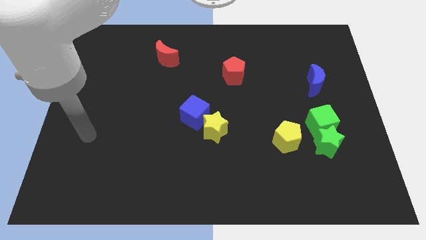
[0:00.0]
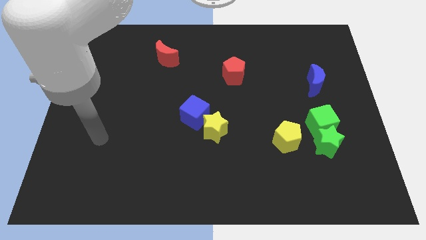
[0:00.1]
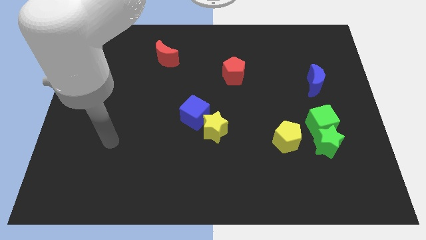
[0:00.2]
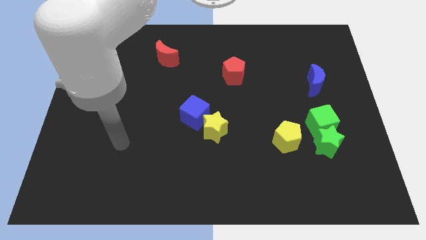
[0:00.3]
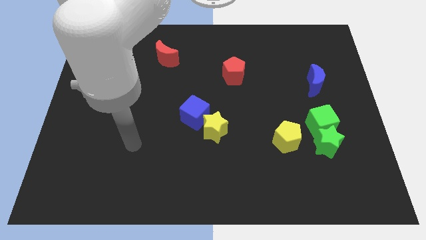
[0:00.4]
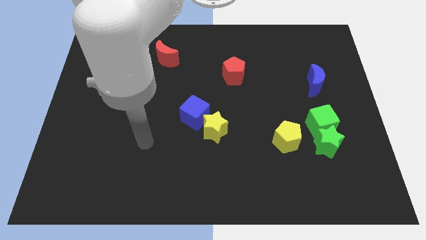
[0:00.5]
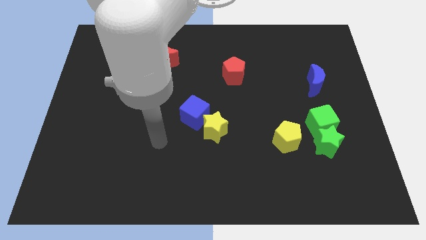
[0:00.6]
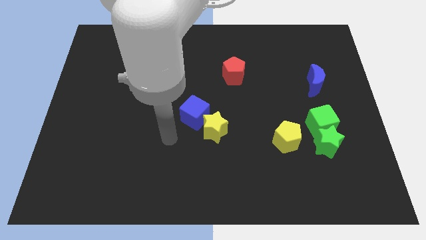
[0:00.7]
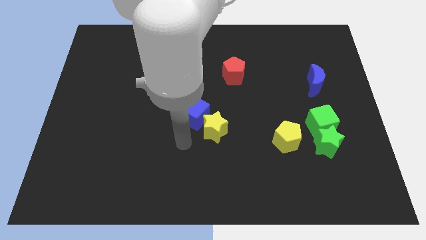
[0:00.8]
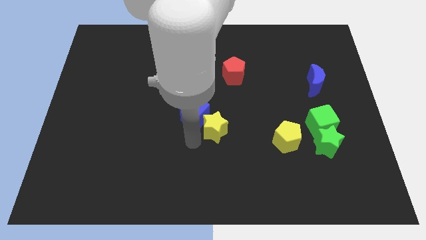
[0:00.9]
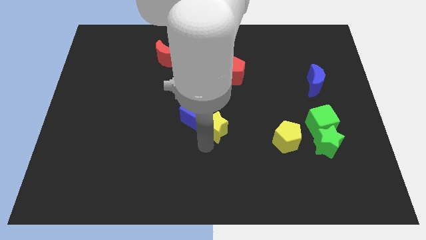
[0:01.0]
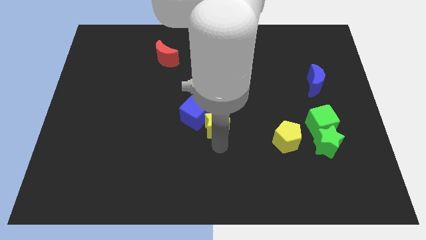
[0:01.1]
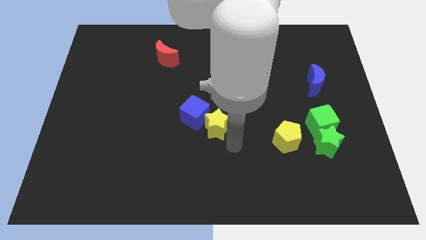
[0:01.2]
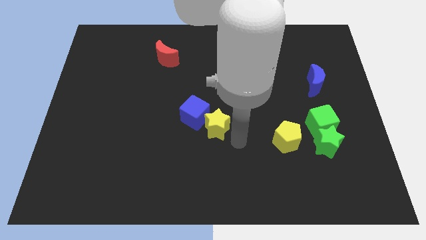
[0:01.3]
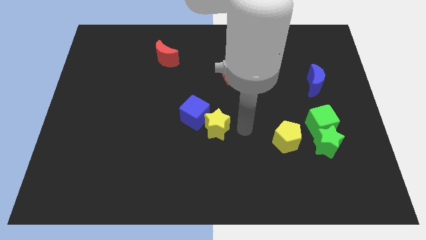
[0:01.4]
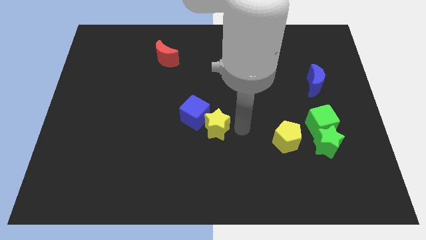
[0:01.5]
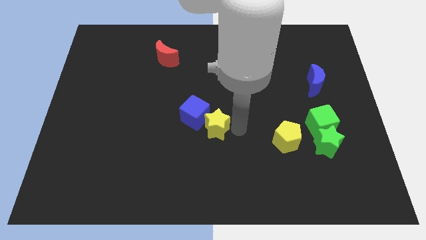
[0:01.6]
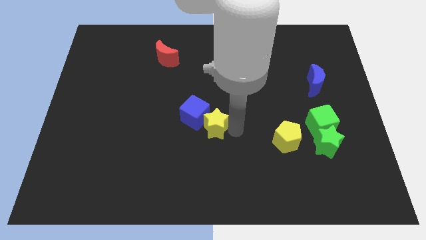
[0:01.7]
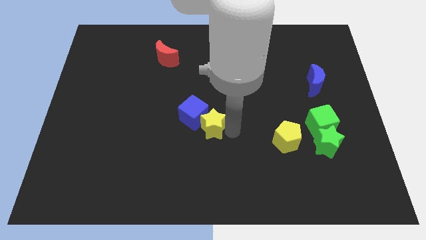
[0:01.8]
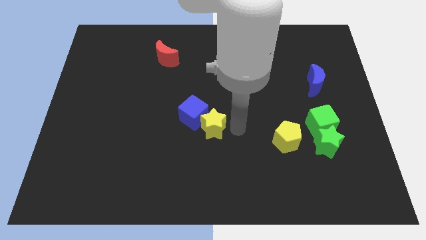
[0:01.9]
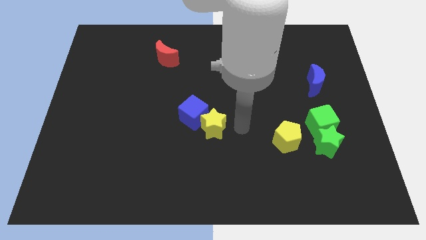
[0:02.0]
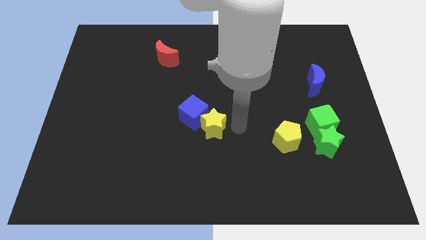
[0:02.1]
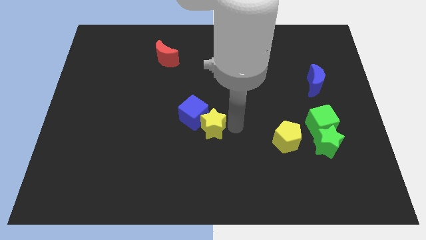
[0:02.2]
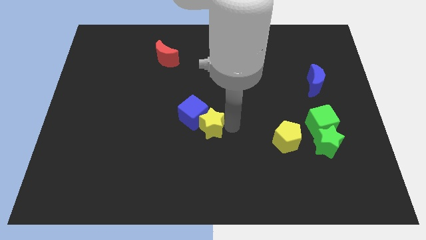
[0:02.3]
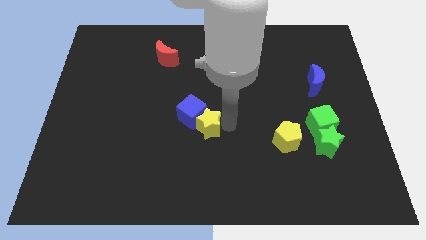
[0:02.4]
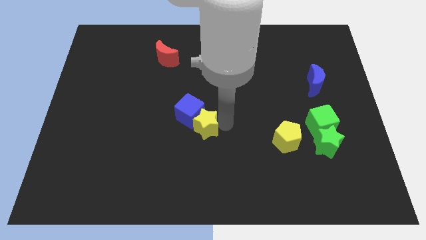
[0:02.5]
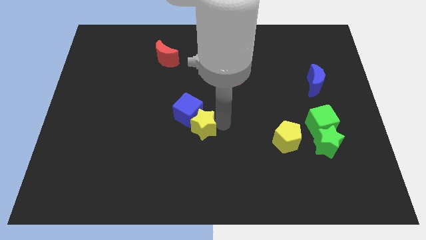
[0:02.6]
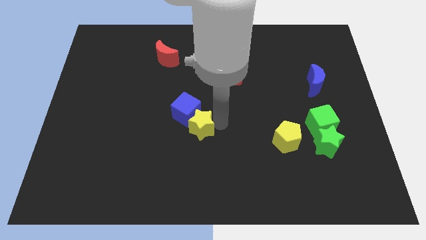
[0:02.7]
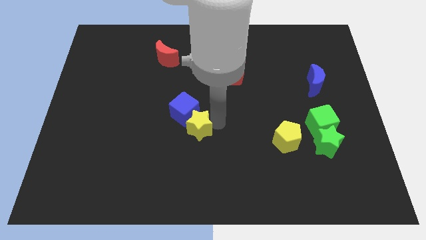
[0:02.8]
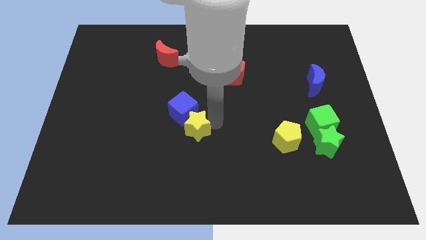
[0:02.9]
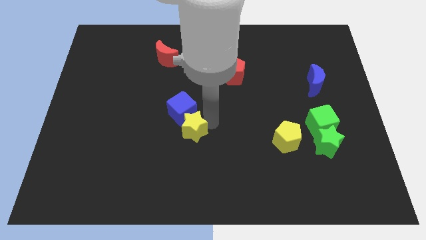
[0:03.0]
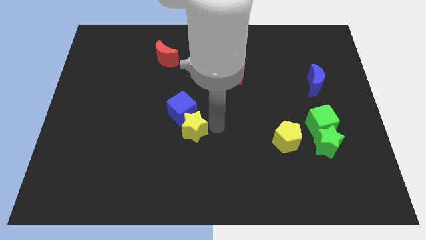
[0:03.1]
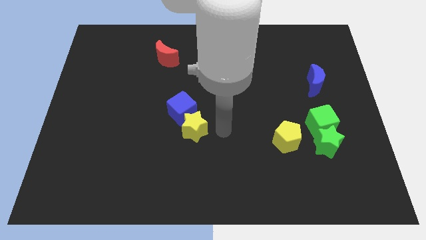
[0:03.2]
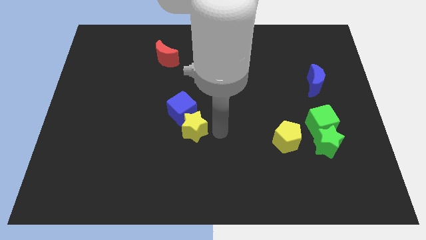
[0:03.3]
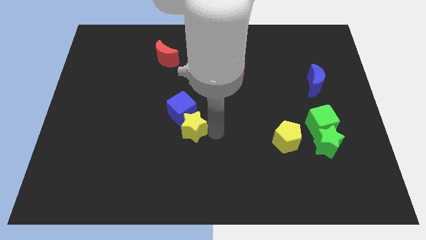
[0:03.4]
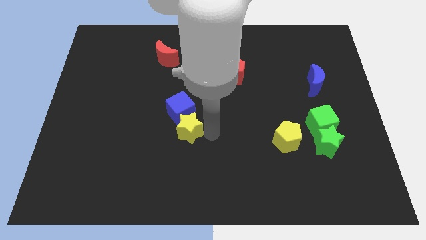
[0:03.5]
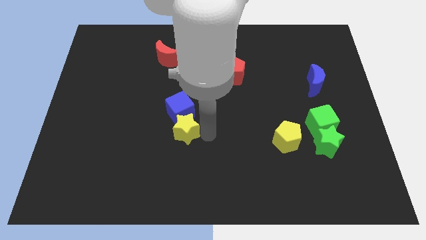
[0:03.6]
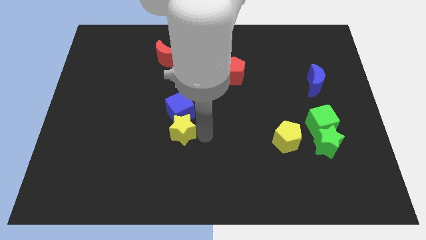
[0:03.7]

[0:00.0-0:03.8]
slightly move the yellow star left

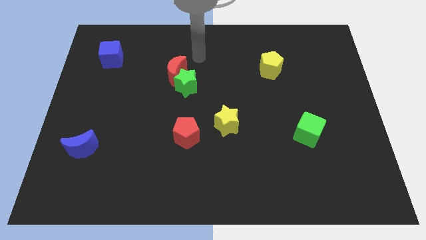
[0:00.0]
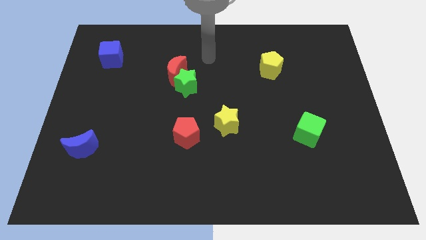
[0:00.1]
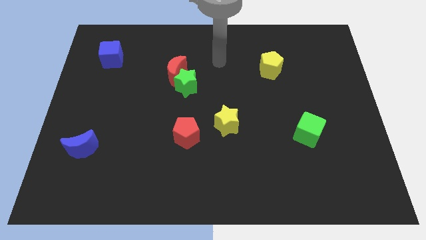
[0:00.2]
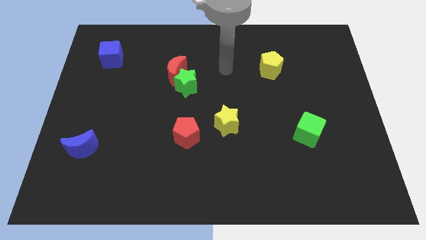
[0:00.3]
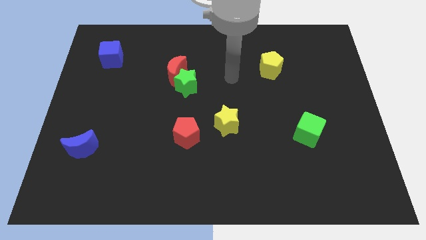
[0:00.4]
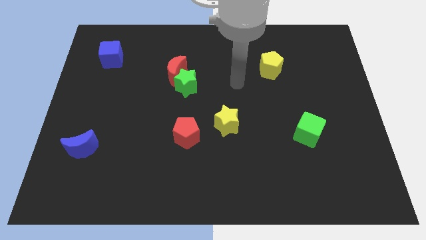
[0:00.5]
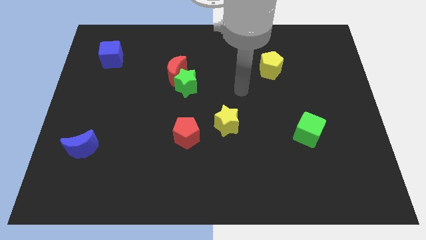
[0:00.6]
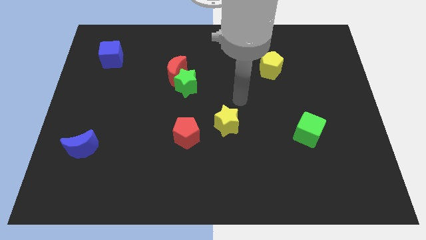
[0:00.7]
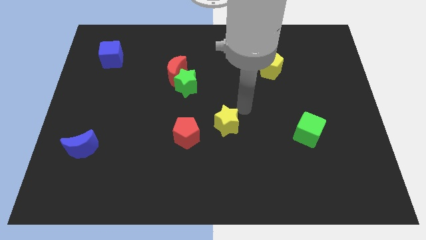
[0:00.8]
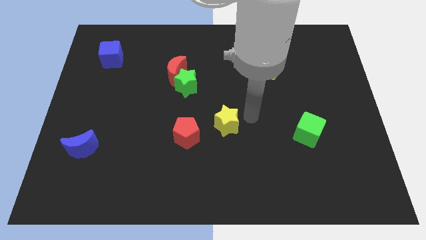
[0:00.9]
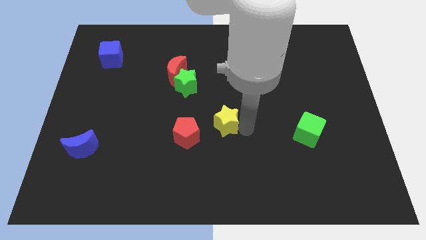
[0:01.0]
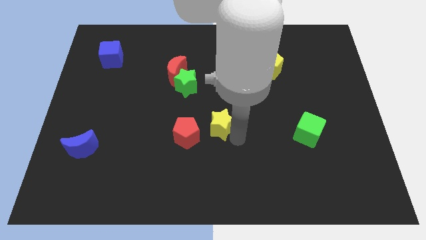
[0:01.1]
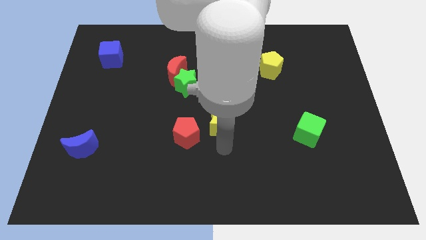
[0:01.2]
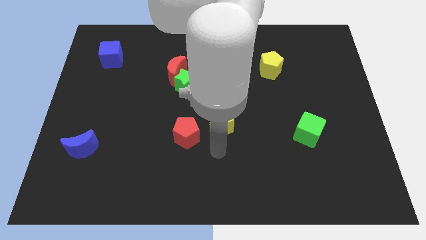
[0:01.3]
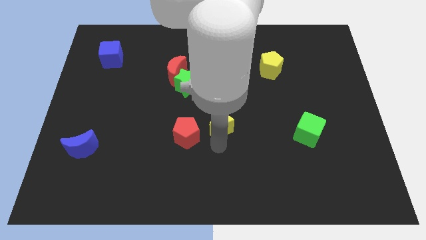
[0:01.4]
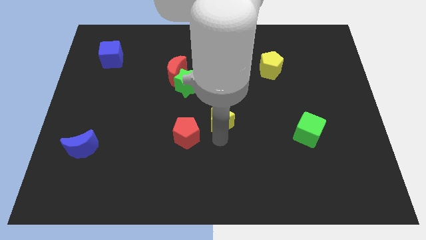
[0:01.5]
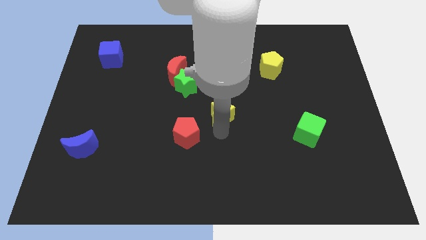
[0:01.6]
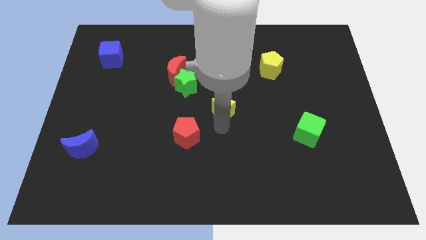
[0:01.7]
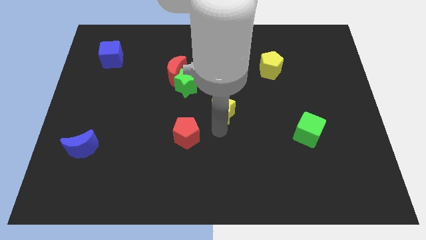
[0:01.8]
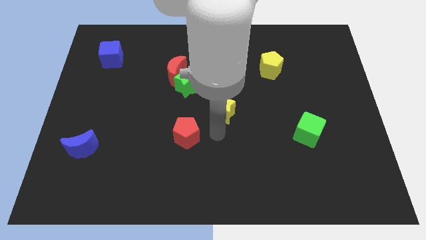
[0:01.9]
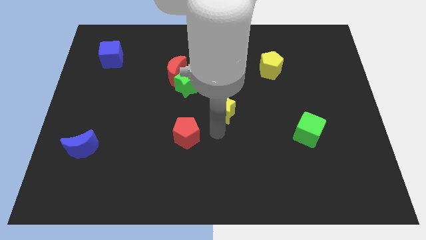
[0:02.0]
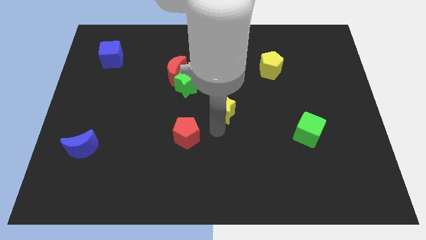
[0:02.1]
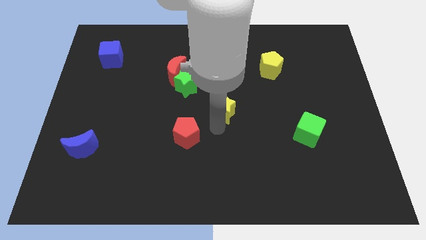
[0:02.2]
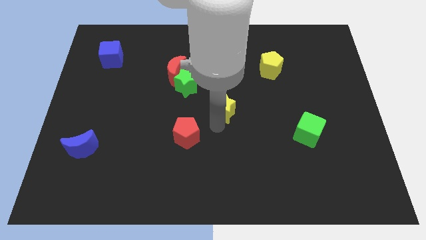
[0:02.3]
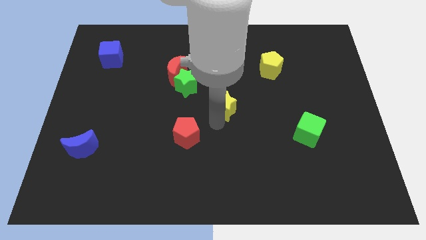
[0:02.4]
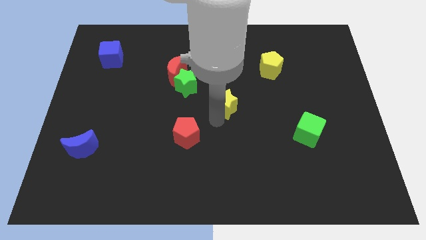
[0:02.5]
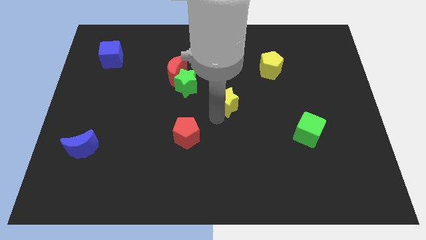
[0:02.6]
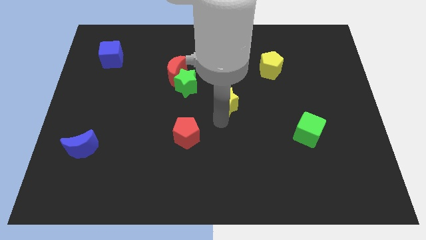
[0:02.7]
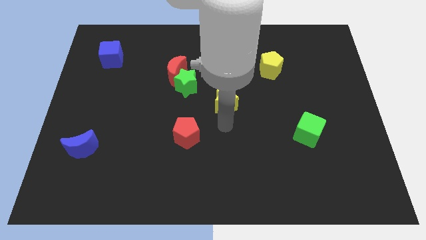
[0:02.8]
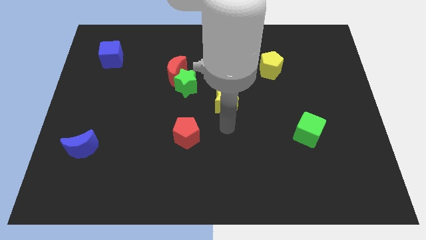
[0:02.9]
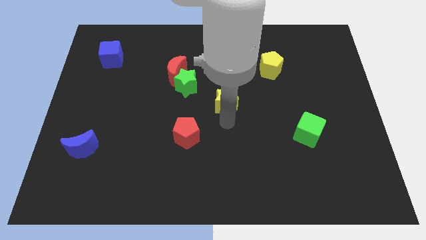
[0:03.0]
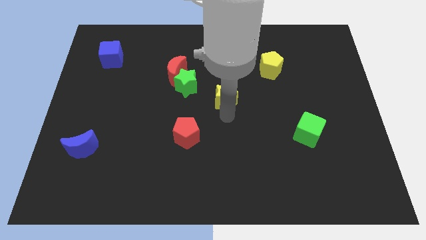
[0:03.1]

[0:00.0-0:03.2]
slightly move the yellow star up

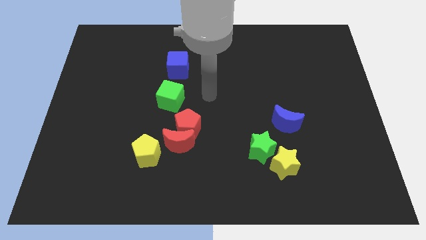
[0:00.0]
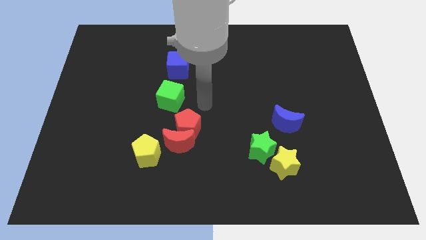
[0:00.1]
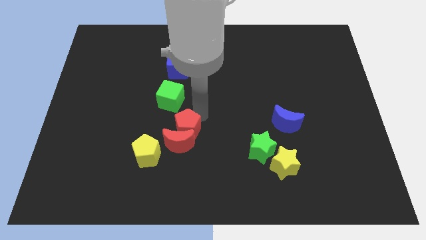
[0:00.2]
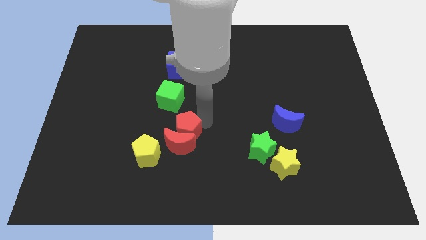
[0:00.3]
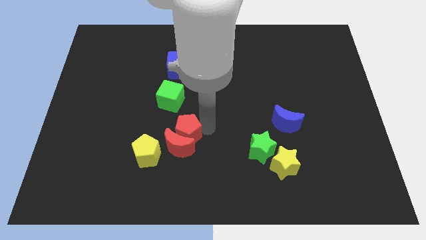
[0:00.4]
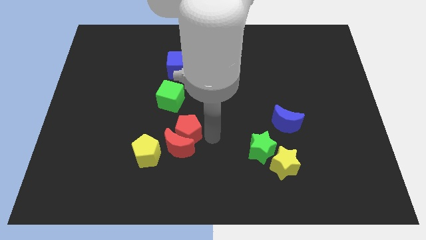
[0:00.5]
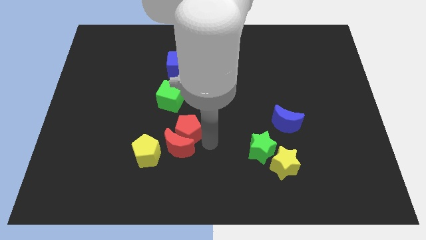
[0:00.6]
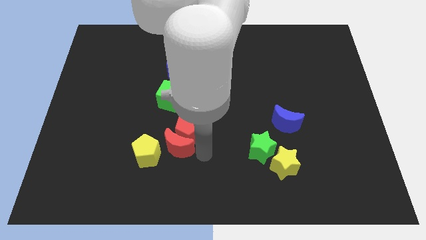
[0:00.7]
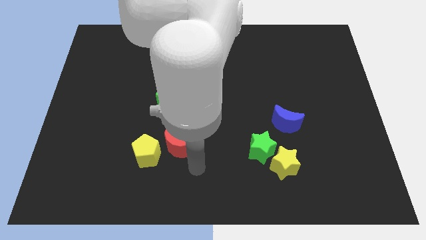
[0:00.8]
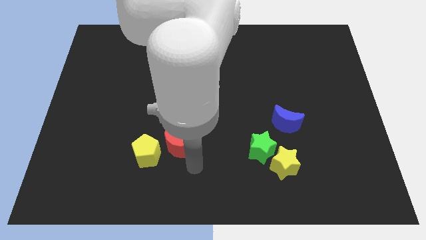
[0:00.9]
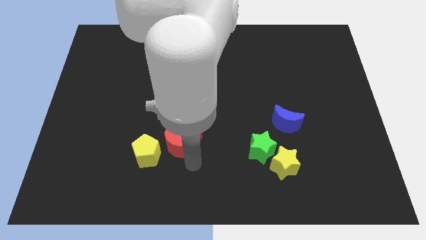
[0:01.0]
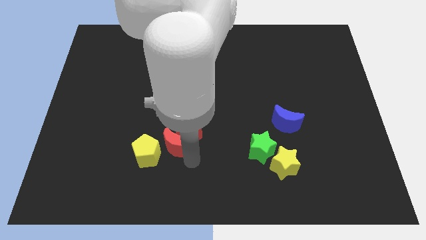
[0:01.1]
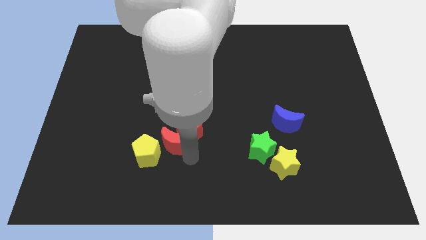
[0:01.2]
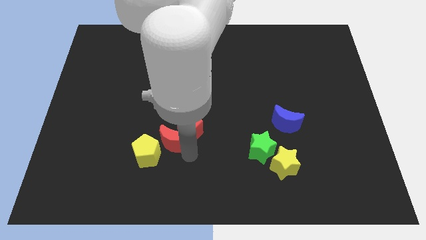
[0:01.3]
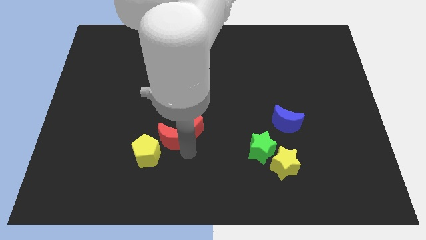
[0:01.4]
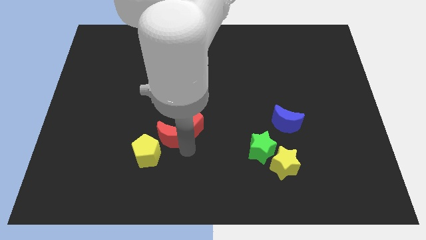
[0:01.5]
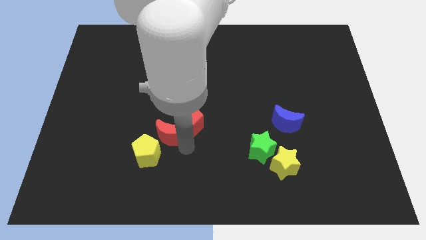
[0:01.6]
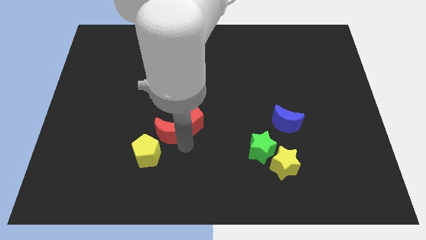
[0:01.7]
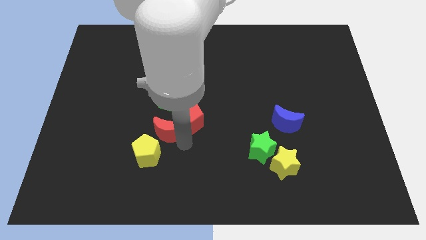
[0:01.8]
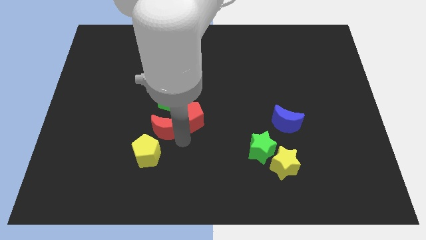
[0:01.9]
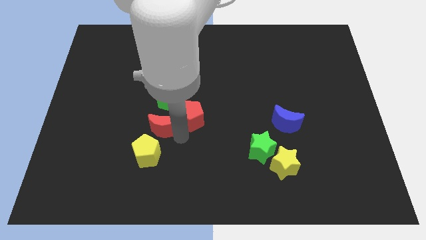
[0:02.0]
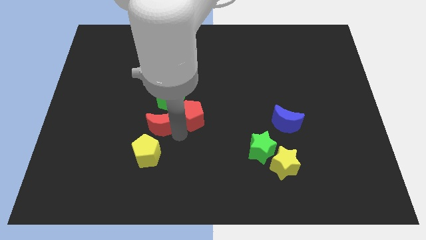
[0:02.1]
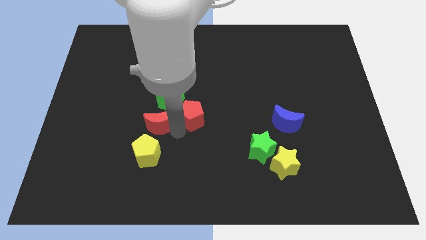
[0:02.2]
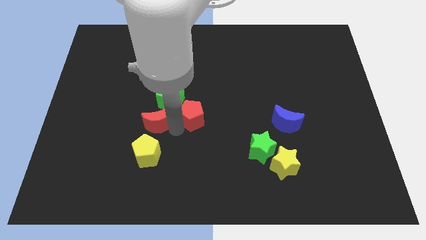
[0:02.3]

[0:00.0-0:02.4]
slide the red moon somewhat diagonally upwards and left
